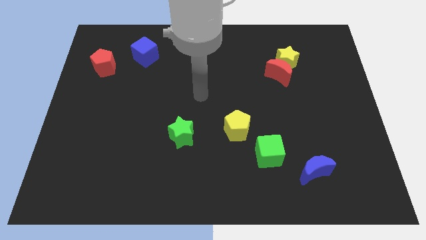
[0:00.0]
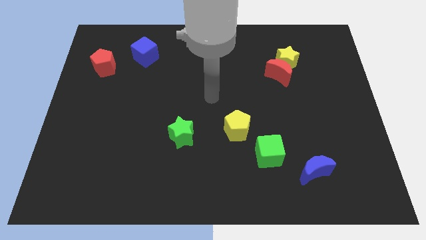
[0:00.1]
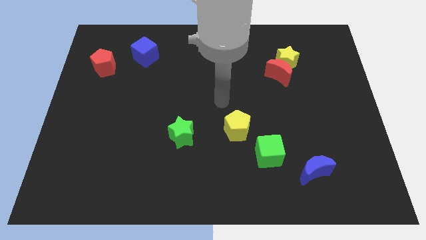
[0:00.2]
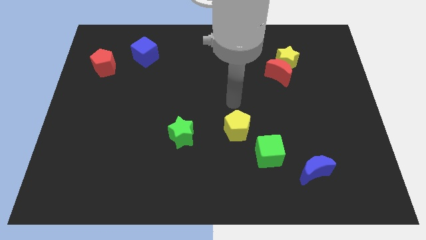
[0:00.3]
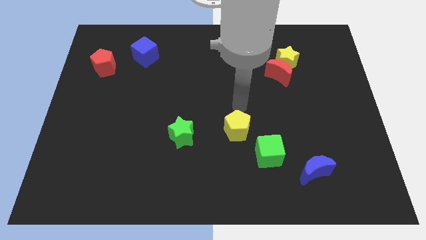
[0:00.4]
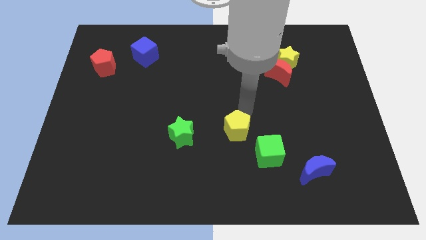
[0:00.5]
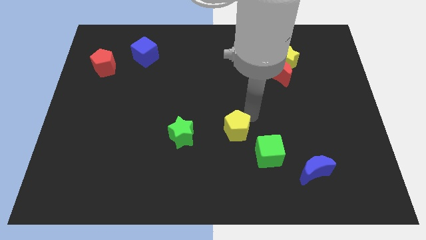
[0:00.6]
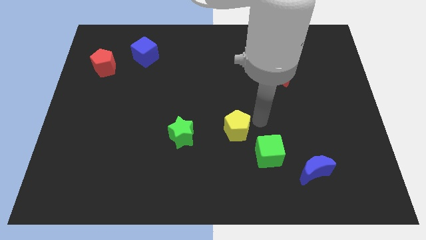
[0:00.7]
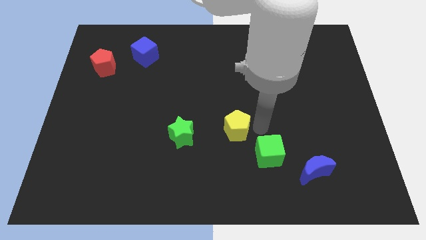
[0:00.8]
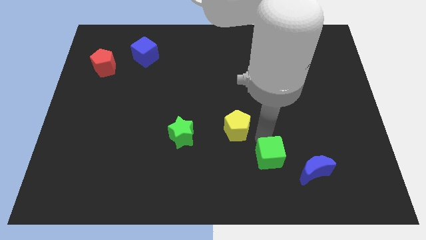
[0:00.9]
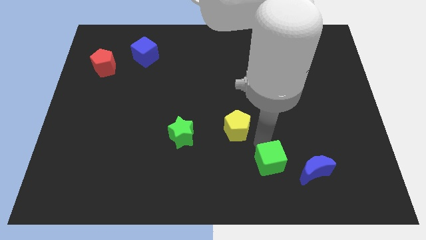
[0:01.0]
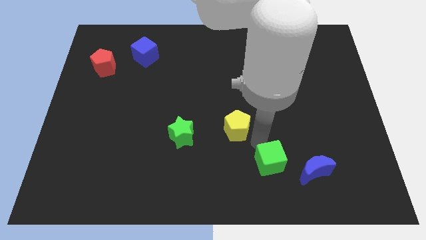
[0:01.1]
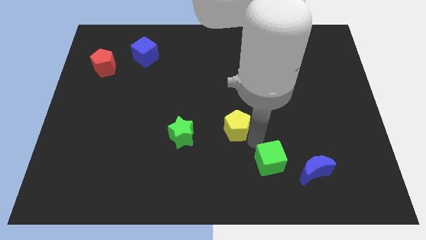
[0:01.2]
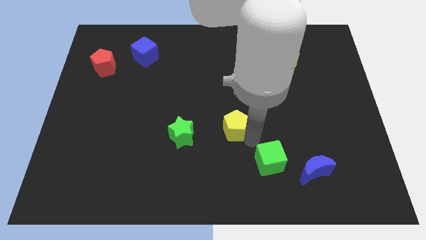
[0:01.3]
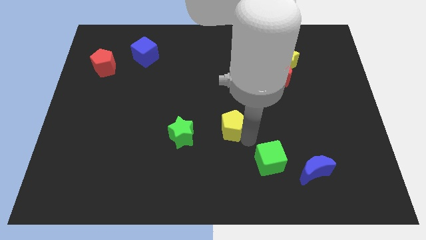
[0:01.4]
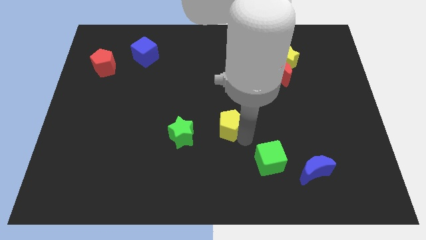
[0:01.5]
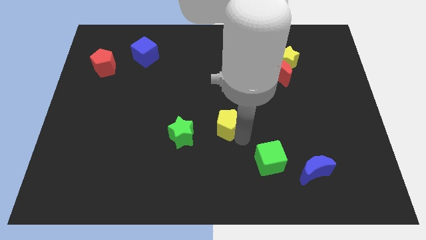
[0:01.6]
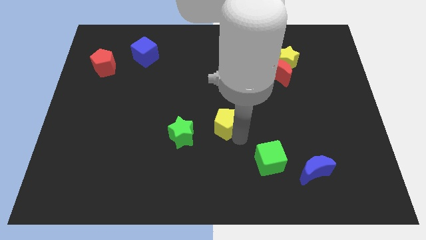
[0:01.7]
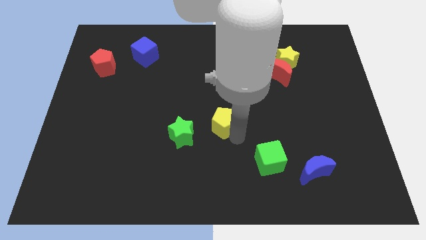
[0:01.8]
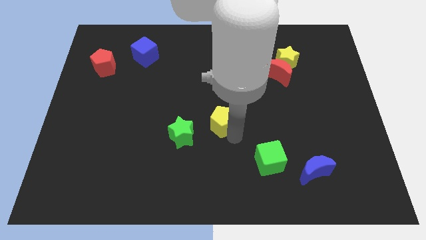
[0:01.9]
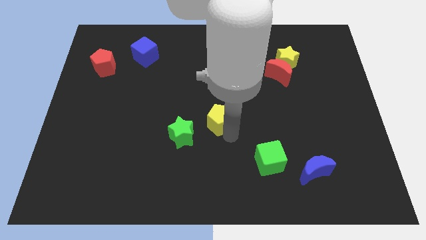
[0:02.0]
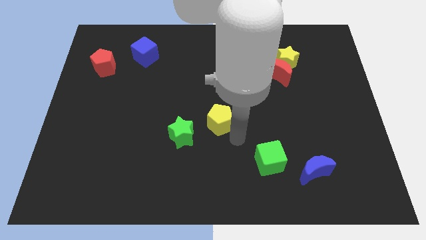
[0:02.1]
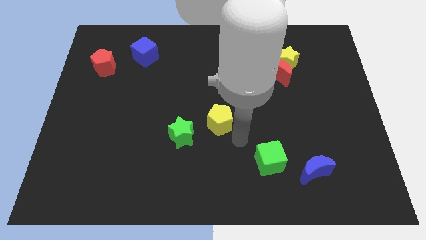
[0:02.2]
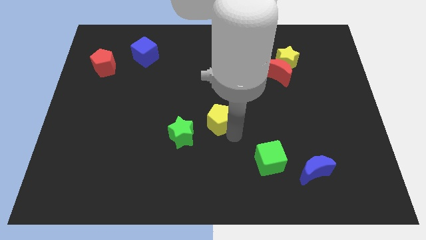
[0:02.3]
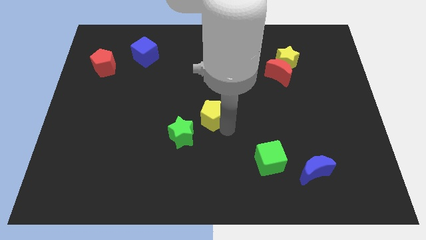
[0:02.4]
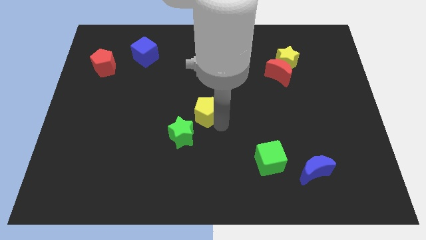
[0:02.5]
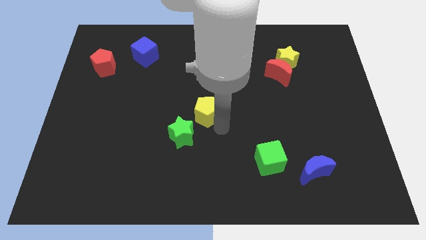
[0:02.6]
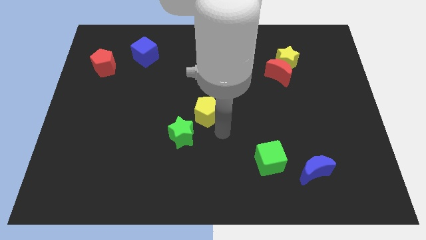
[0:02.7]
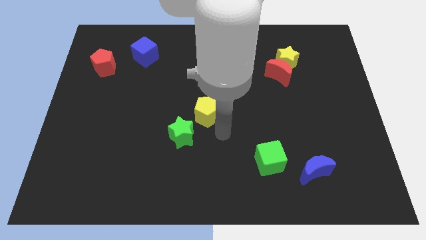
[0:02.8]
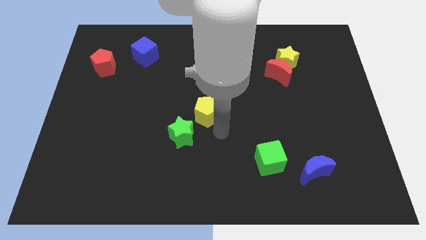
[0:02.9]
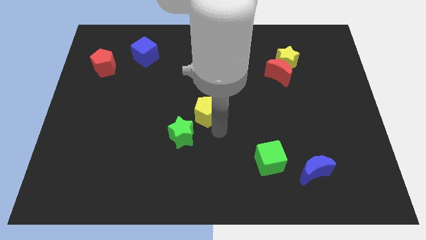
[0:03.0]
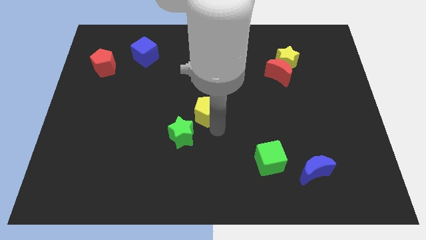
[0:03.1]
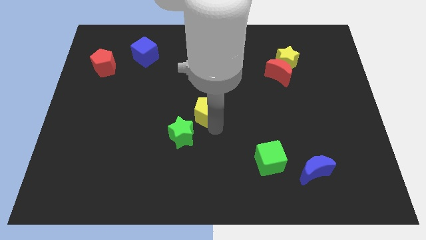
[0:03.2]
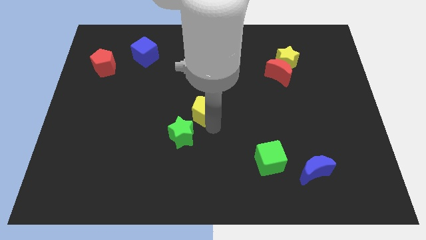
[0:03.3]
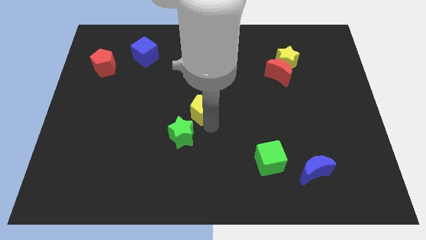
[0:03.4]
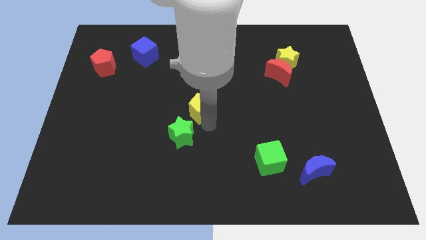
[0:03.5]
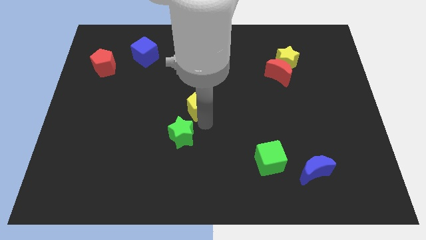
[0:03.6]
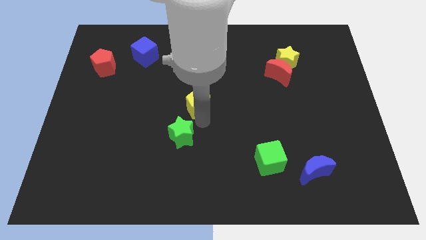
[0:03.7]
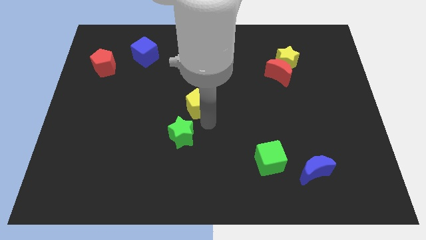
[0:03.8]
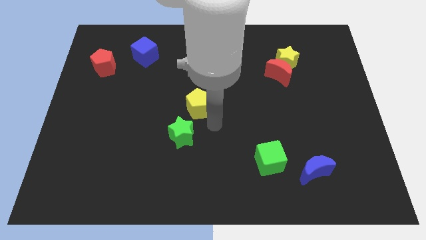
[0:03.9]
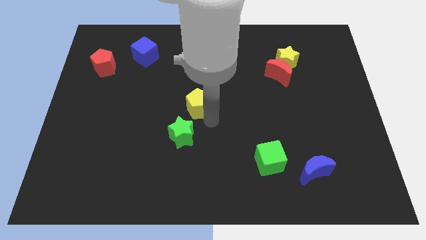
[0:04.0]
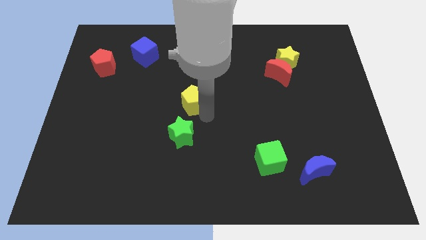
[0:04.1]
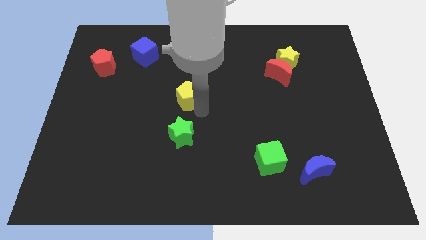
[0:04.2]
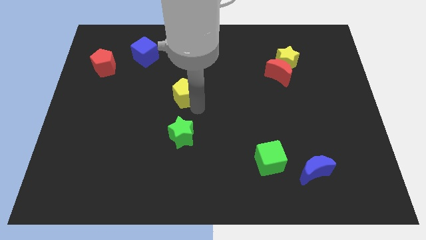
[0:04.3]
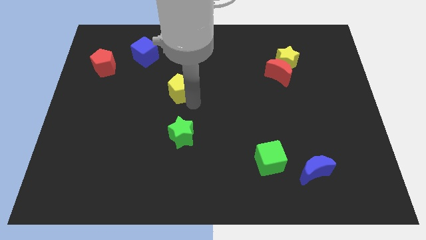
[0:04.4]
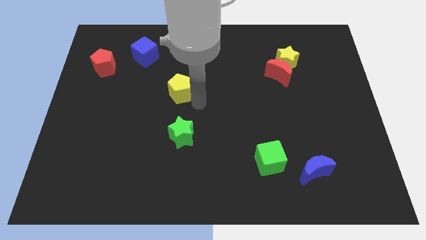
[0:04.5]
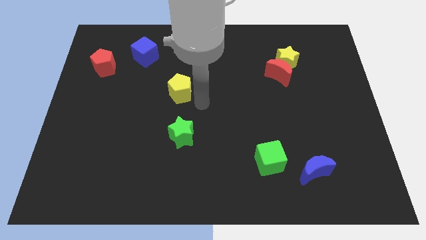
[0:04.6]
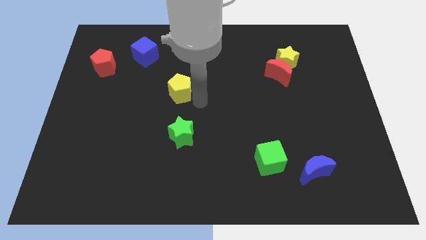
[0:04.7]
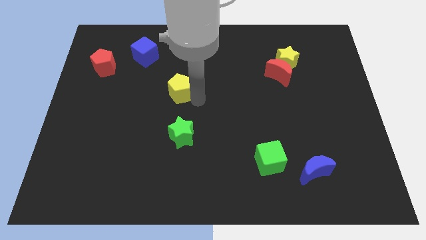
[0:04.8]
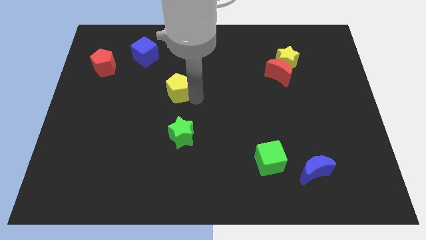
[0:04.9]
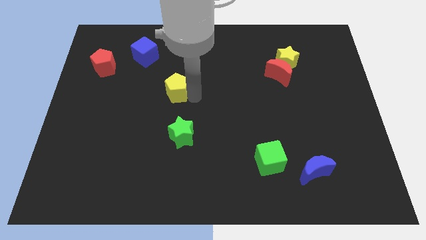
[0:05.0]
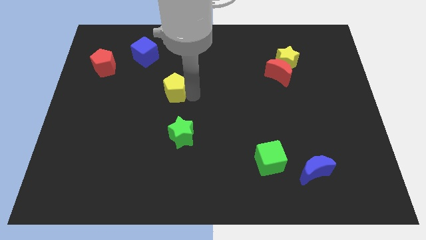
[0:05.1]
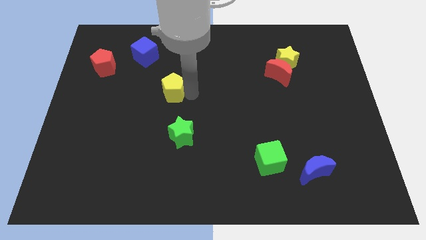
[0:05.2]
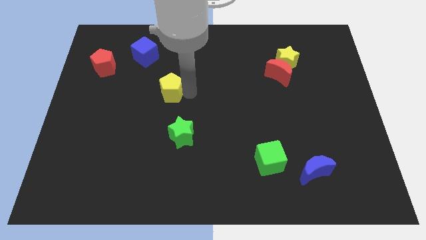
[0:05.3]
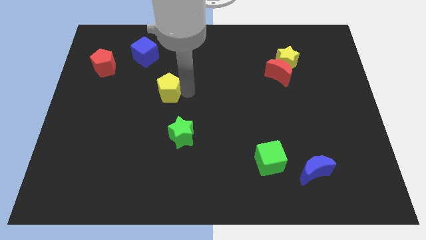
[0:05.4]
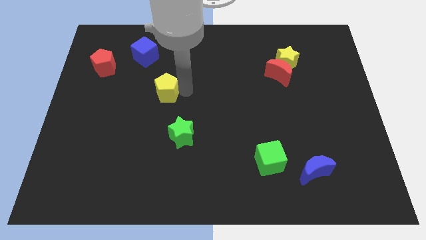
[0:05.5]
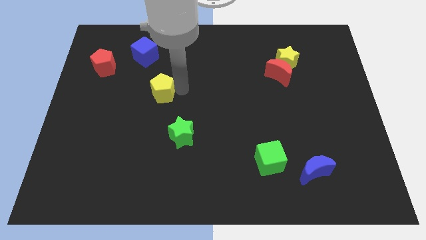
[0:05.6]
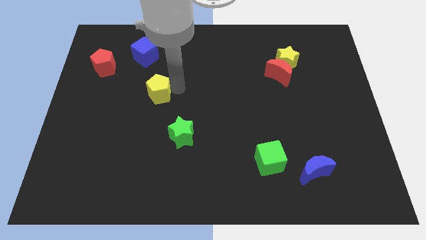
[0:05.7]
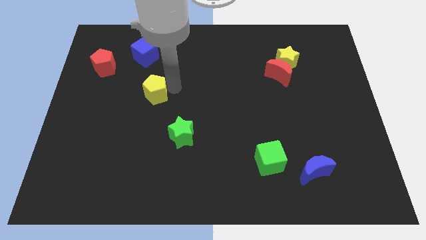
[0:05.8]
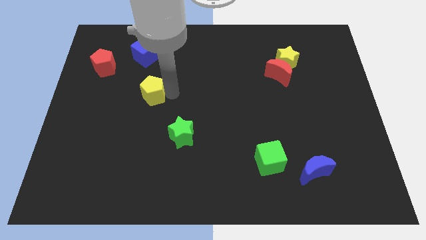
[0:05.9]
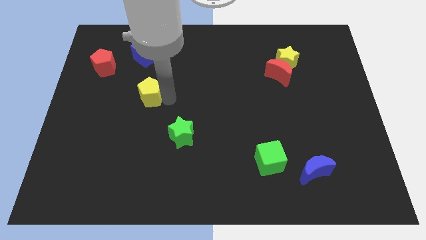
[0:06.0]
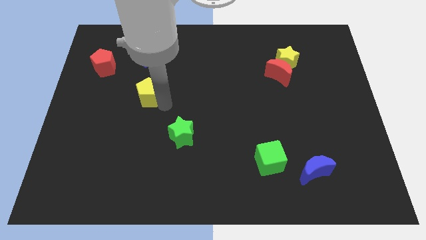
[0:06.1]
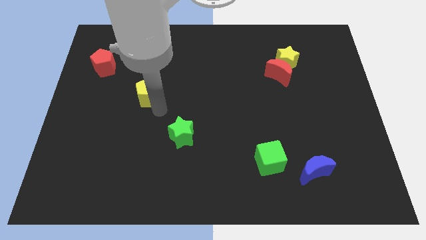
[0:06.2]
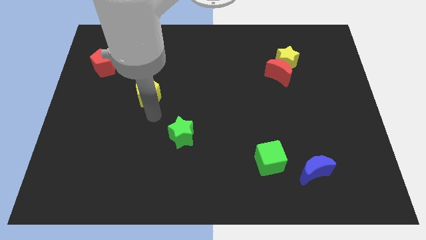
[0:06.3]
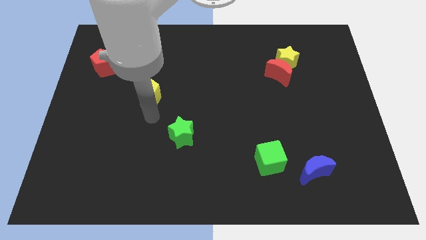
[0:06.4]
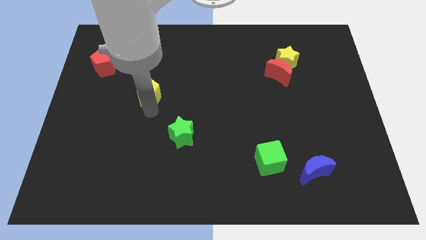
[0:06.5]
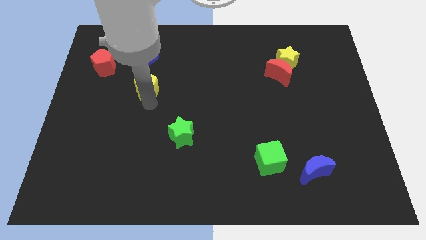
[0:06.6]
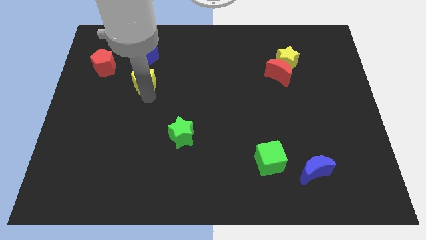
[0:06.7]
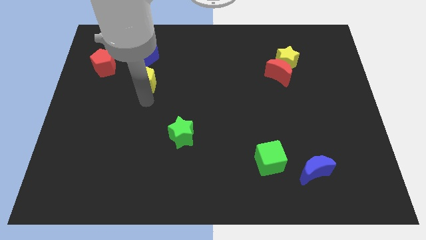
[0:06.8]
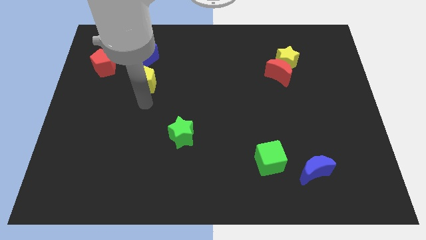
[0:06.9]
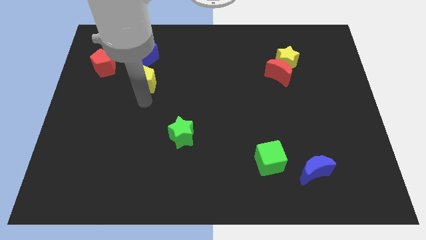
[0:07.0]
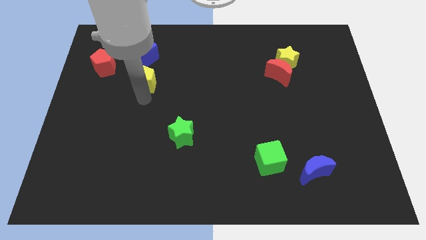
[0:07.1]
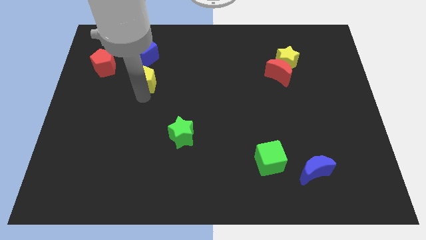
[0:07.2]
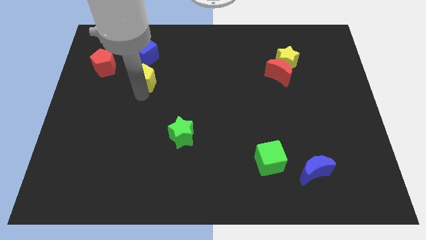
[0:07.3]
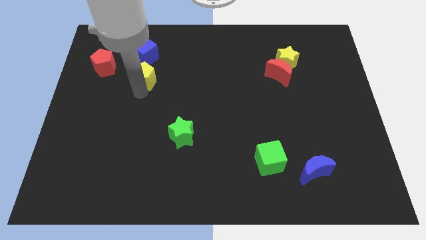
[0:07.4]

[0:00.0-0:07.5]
push the yellow pentagon to the right of the red pentagon
